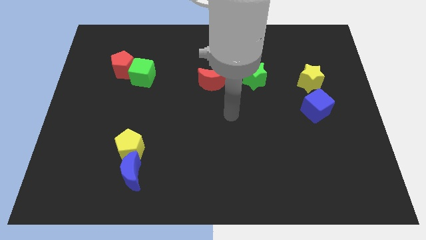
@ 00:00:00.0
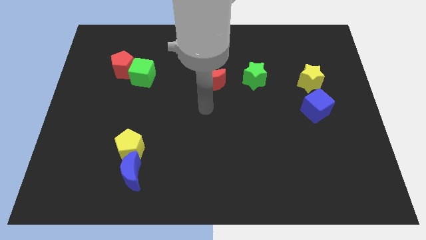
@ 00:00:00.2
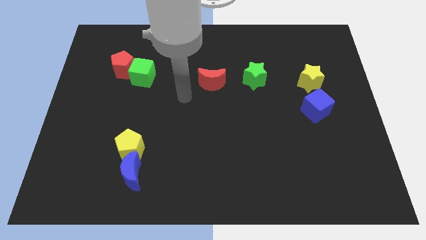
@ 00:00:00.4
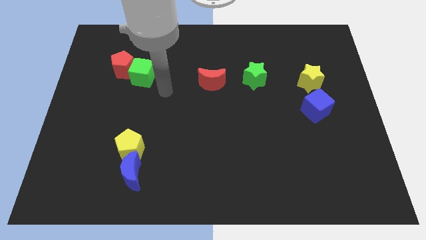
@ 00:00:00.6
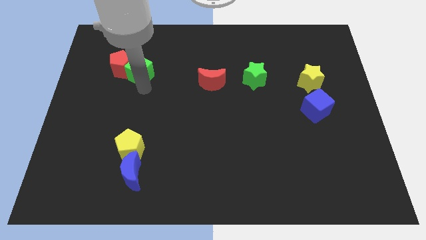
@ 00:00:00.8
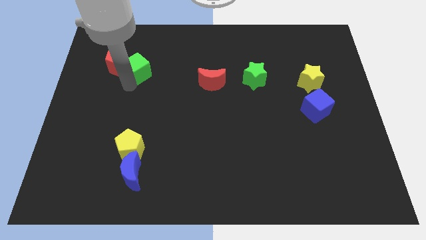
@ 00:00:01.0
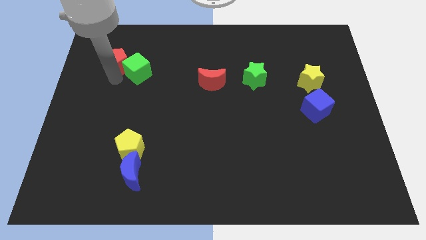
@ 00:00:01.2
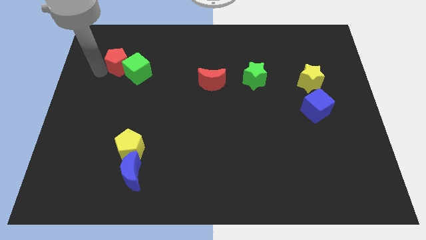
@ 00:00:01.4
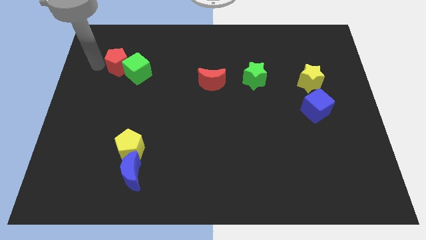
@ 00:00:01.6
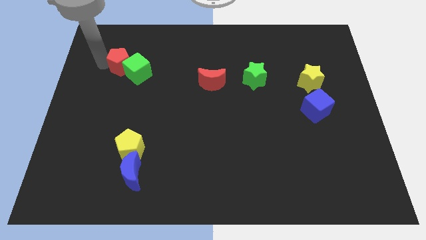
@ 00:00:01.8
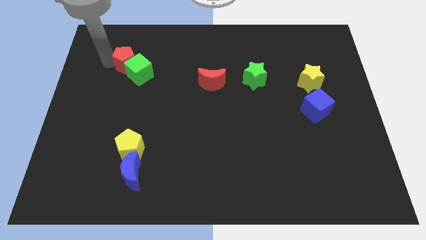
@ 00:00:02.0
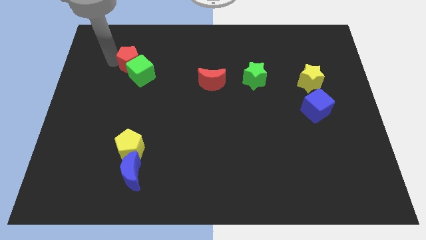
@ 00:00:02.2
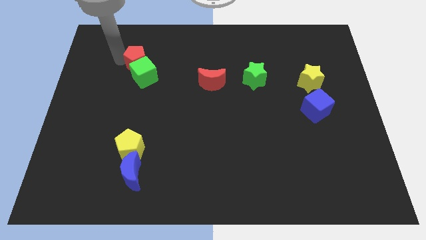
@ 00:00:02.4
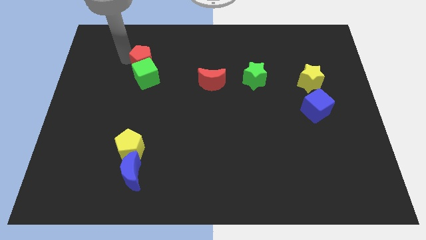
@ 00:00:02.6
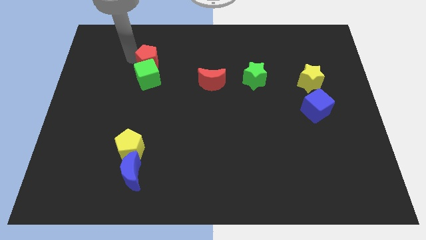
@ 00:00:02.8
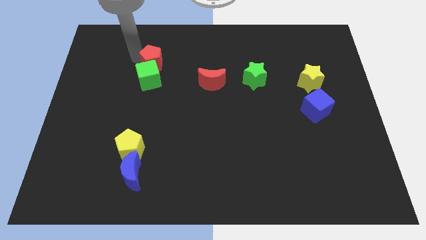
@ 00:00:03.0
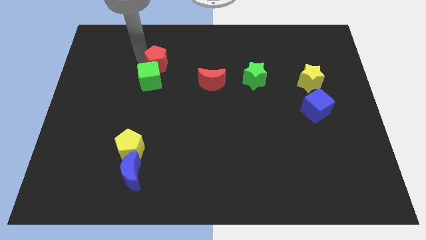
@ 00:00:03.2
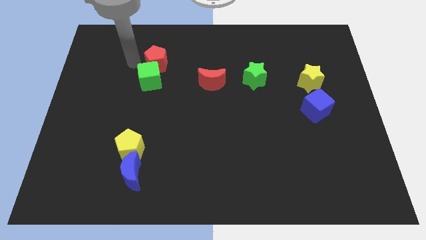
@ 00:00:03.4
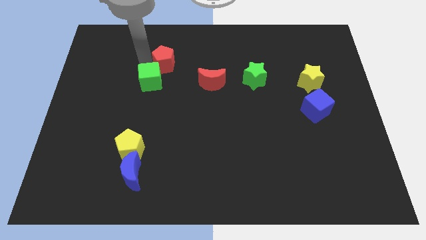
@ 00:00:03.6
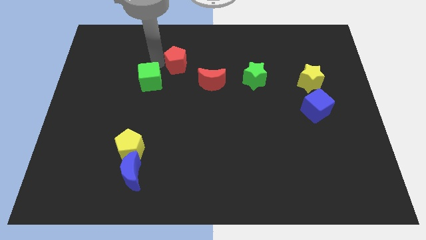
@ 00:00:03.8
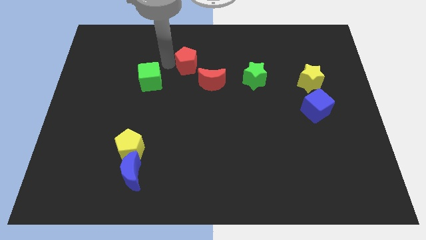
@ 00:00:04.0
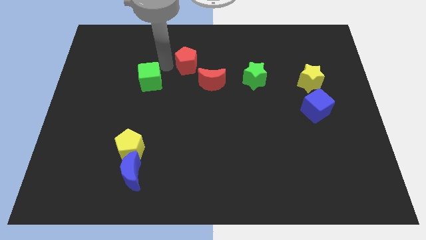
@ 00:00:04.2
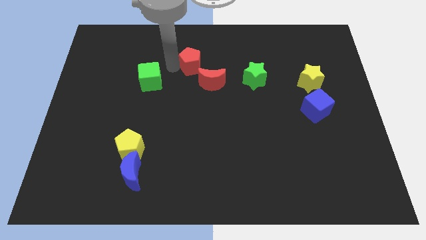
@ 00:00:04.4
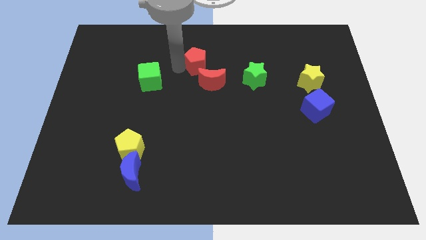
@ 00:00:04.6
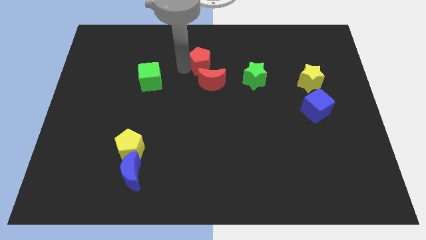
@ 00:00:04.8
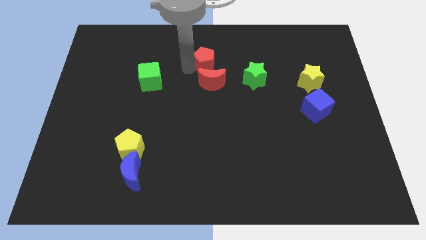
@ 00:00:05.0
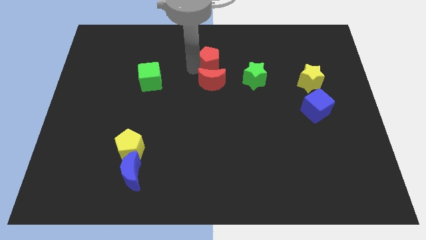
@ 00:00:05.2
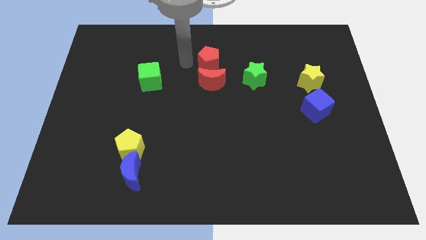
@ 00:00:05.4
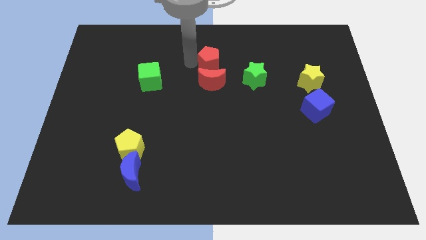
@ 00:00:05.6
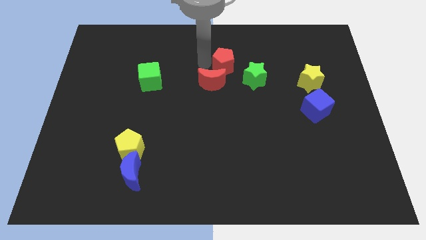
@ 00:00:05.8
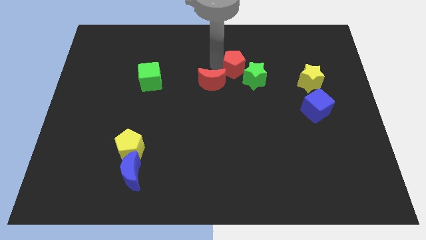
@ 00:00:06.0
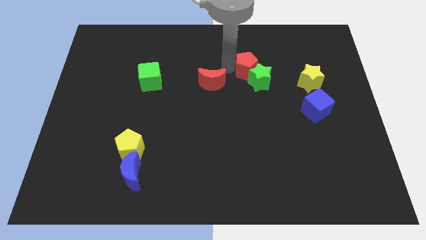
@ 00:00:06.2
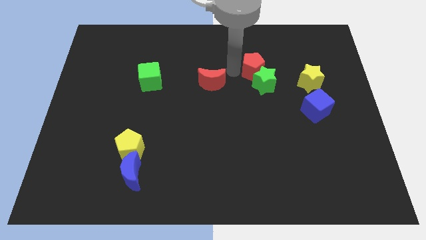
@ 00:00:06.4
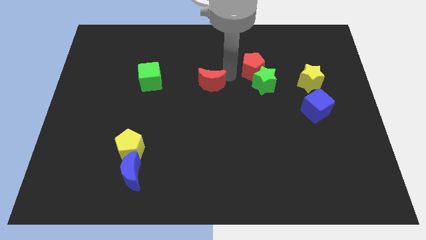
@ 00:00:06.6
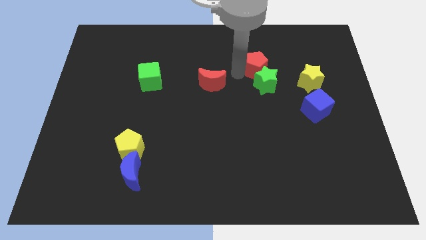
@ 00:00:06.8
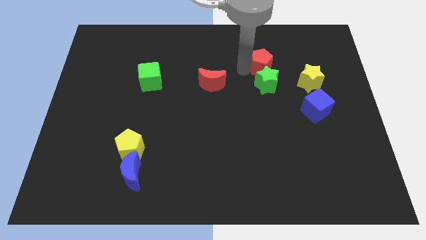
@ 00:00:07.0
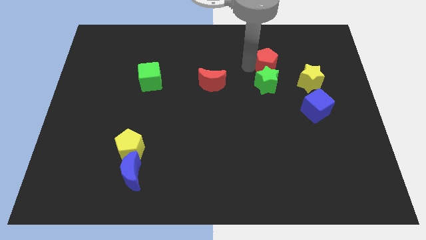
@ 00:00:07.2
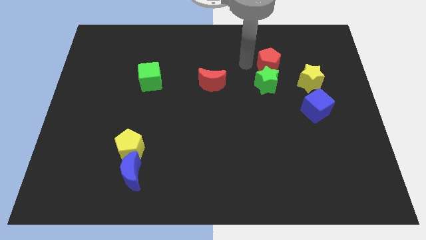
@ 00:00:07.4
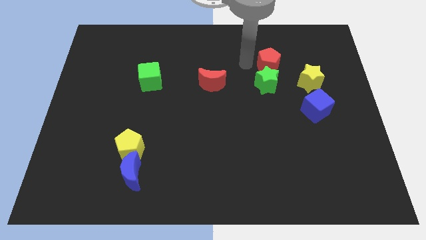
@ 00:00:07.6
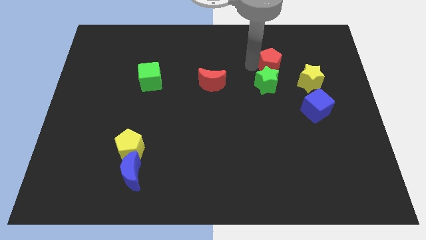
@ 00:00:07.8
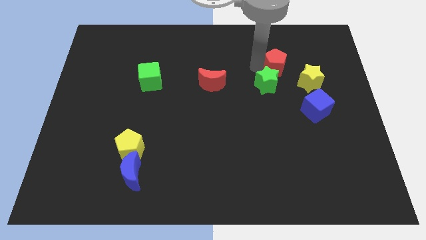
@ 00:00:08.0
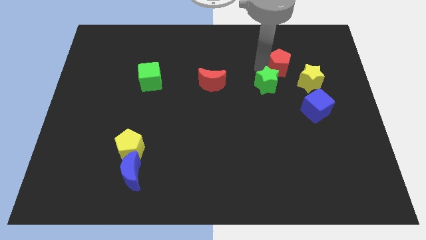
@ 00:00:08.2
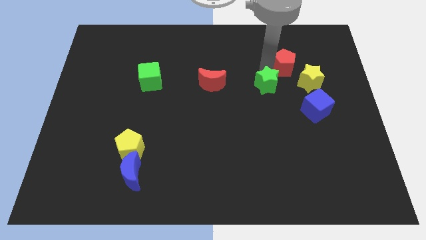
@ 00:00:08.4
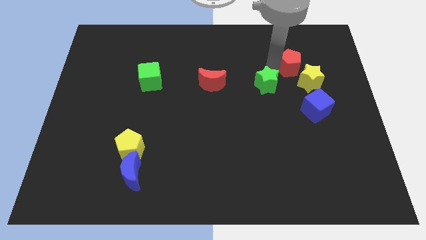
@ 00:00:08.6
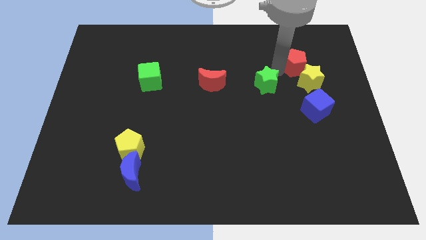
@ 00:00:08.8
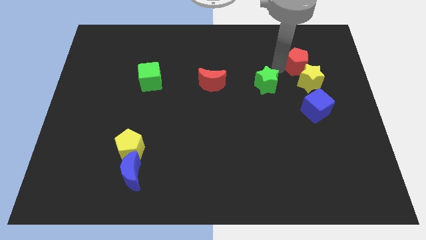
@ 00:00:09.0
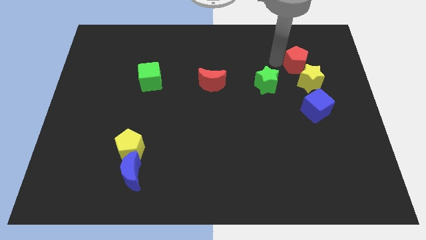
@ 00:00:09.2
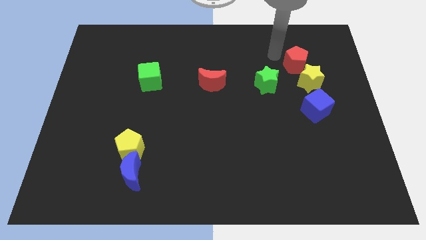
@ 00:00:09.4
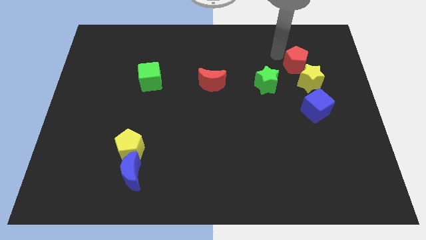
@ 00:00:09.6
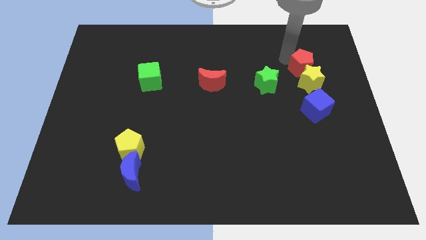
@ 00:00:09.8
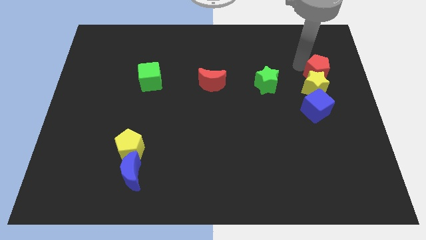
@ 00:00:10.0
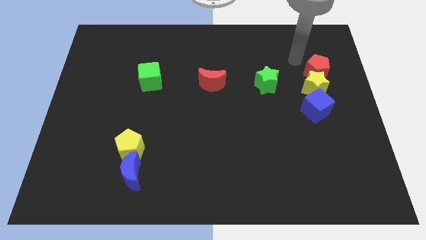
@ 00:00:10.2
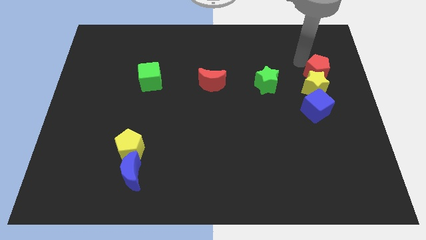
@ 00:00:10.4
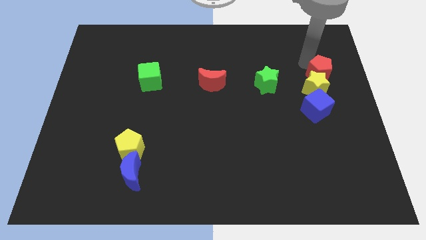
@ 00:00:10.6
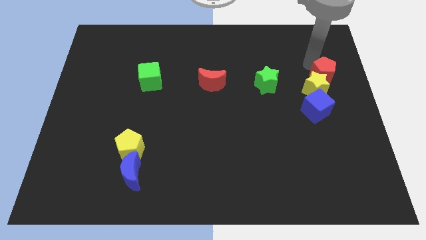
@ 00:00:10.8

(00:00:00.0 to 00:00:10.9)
push the red pentagon to the right side of the board
